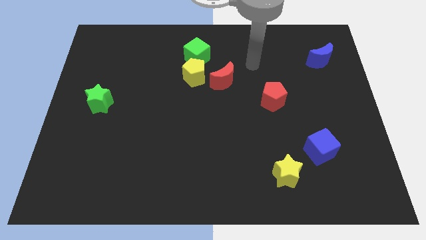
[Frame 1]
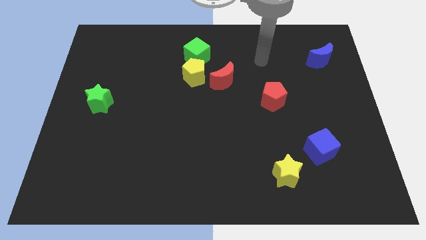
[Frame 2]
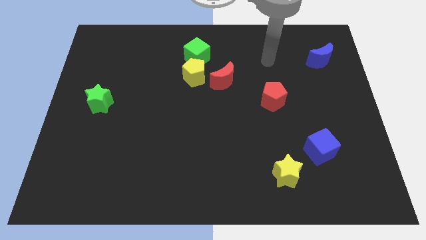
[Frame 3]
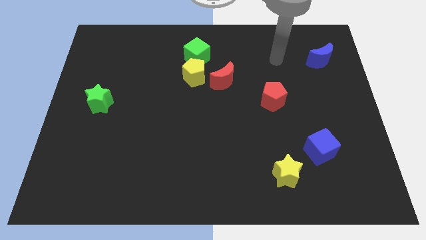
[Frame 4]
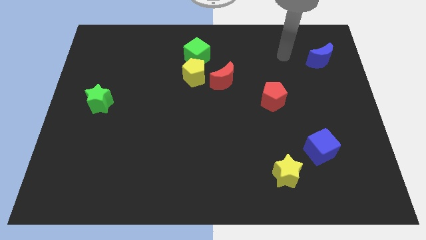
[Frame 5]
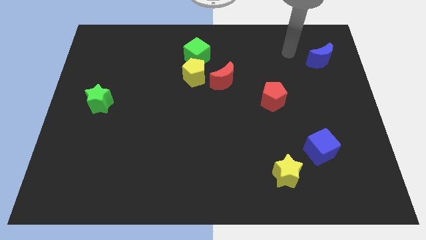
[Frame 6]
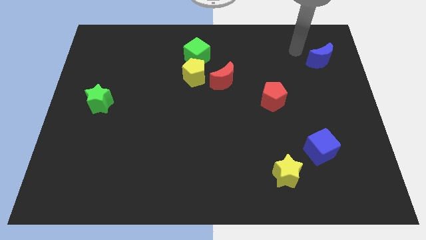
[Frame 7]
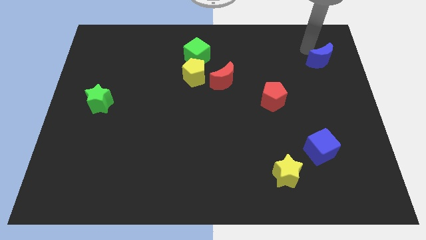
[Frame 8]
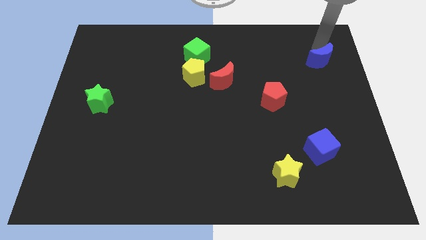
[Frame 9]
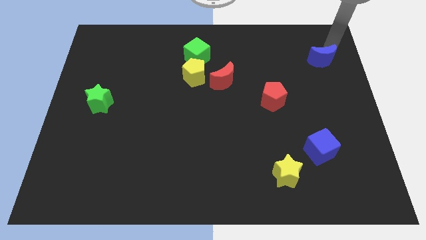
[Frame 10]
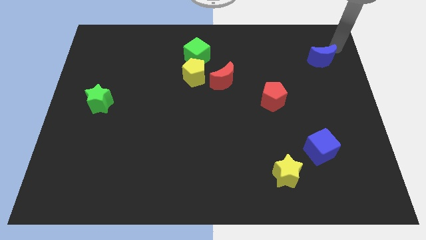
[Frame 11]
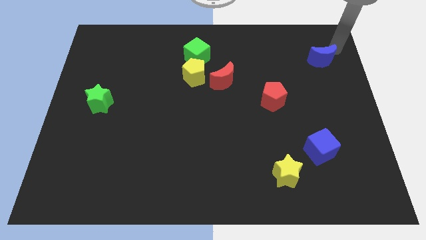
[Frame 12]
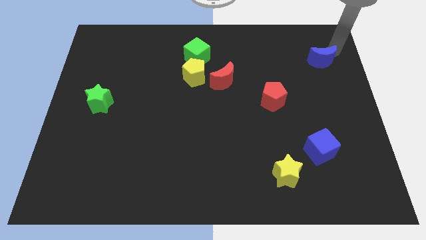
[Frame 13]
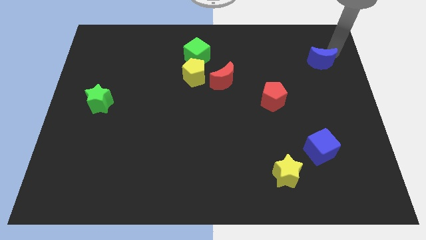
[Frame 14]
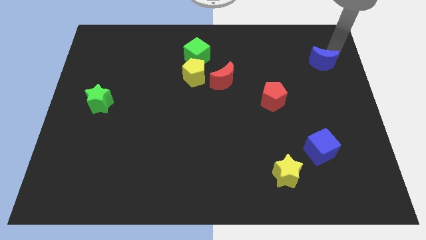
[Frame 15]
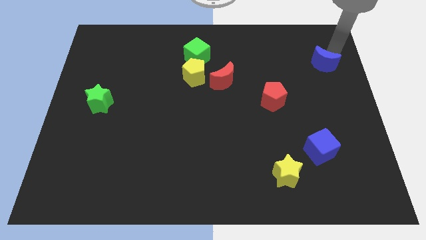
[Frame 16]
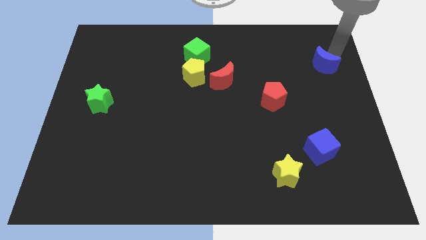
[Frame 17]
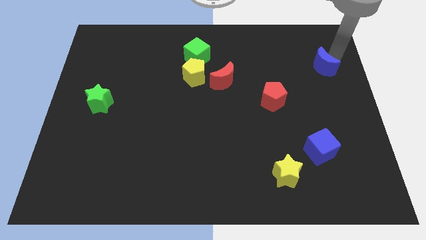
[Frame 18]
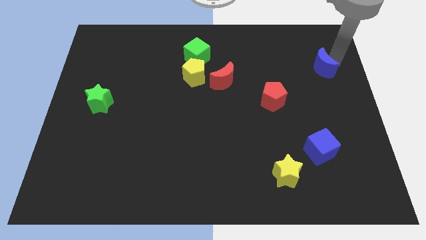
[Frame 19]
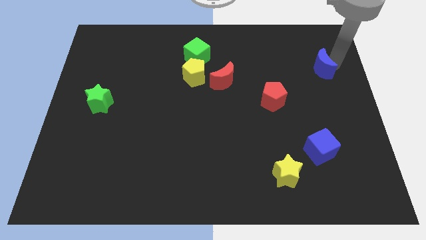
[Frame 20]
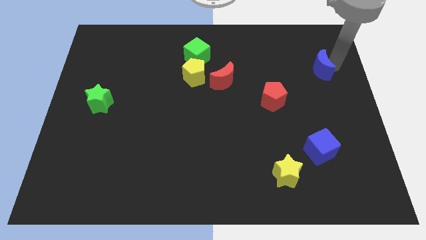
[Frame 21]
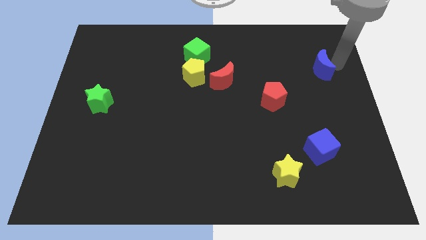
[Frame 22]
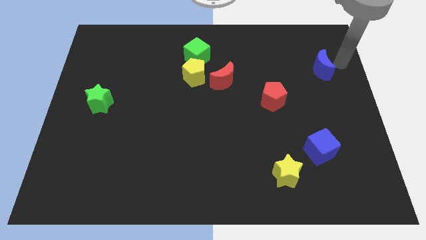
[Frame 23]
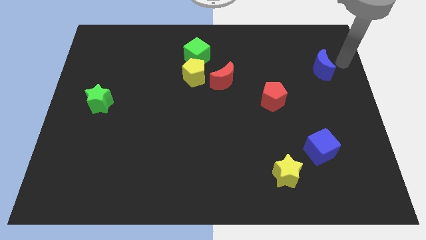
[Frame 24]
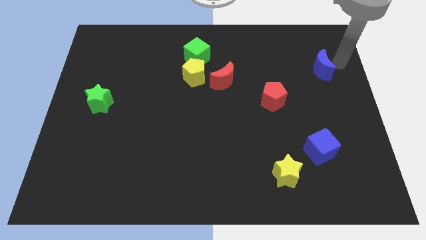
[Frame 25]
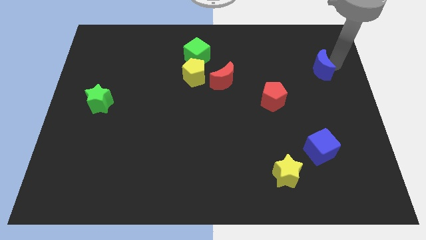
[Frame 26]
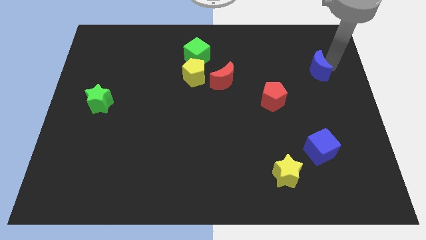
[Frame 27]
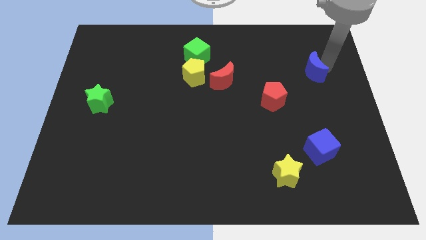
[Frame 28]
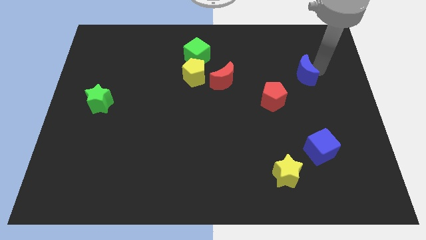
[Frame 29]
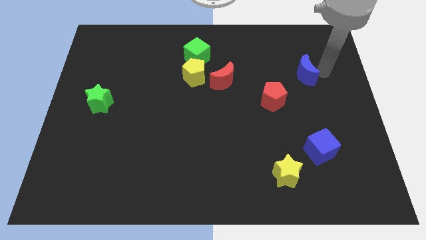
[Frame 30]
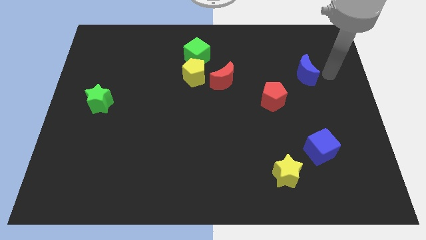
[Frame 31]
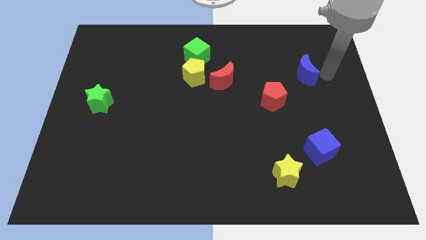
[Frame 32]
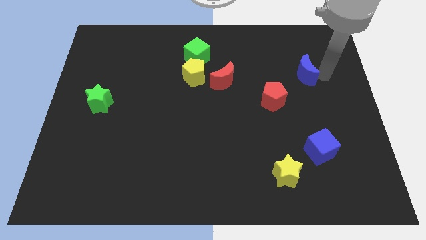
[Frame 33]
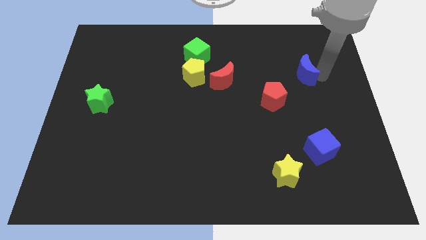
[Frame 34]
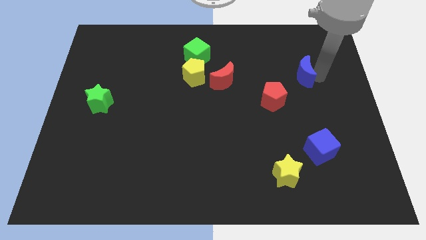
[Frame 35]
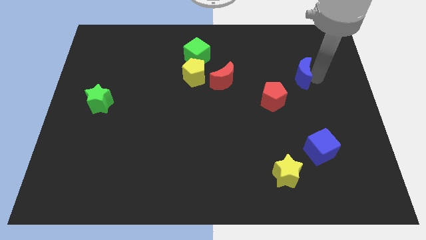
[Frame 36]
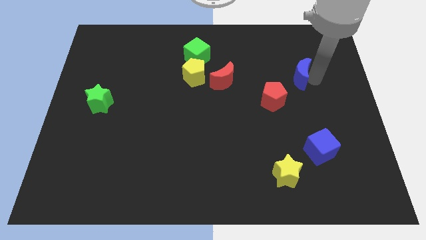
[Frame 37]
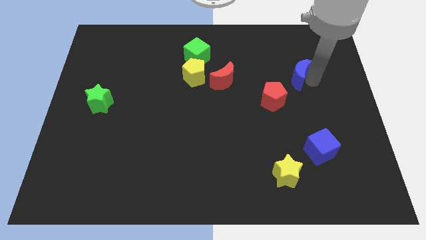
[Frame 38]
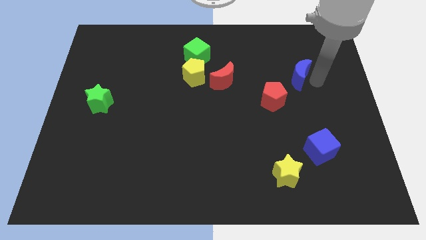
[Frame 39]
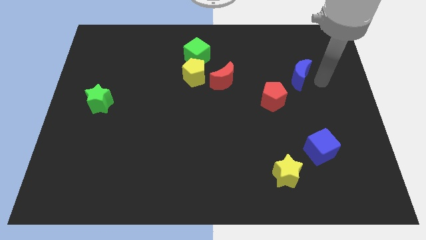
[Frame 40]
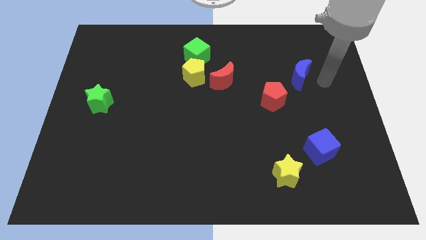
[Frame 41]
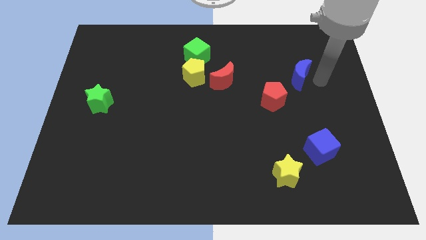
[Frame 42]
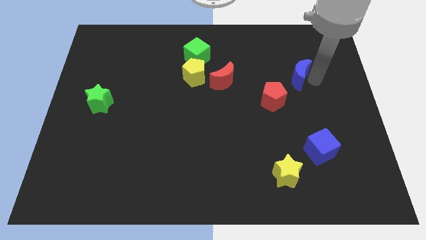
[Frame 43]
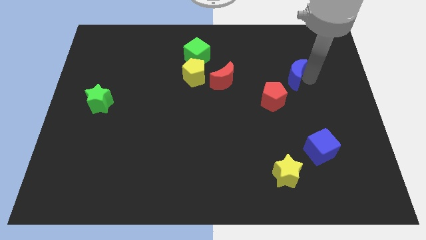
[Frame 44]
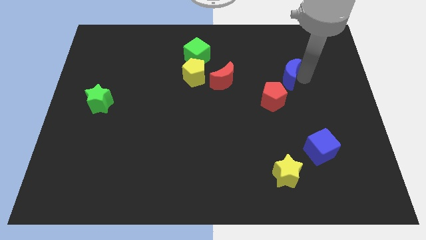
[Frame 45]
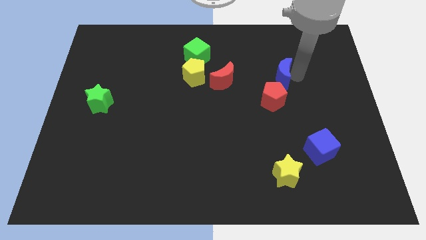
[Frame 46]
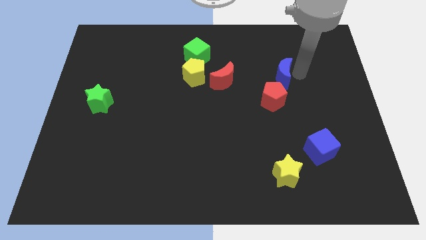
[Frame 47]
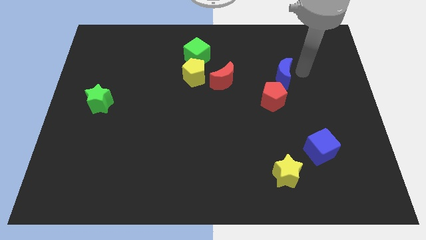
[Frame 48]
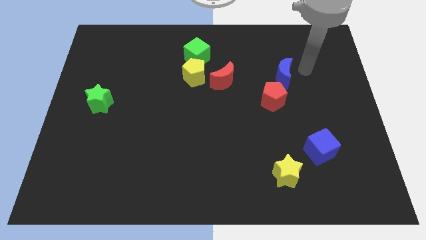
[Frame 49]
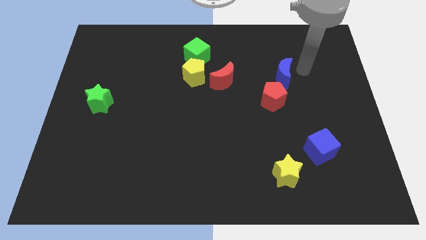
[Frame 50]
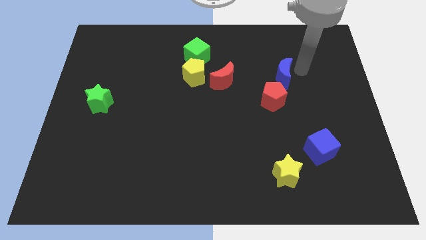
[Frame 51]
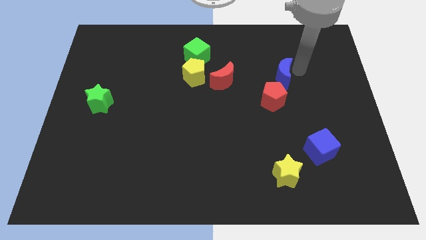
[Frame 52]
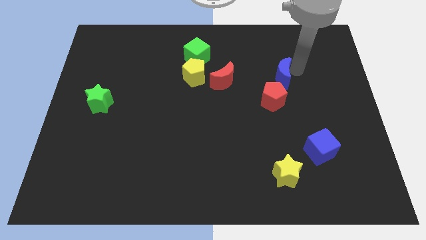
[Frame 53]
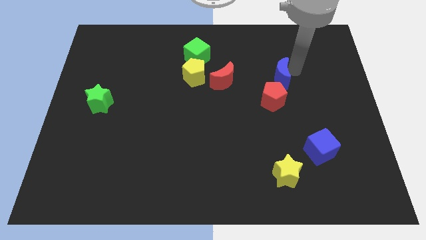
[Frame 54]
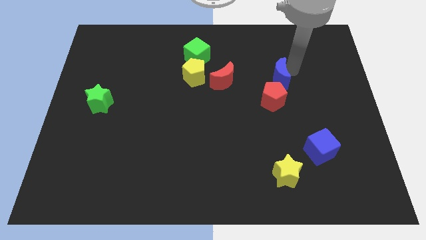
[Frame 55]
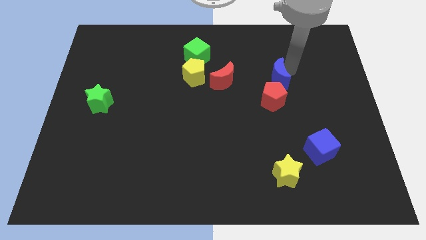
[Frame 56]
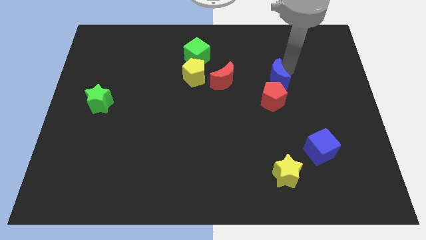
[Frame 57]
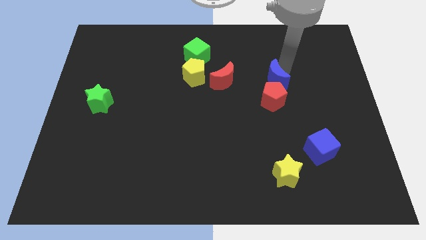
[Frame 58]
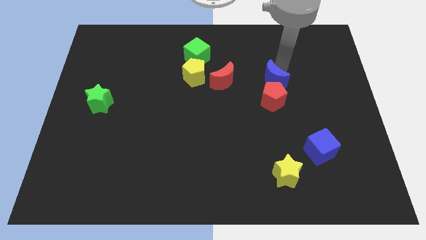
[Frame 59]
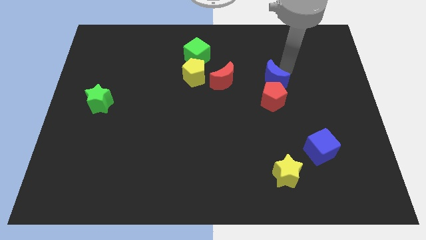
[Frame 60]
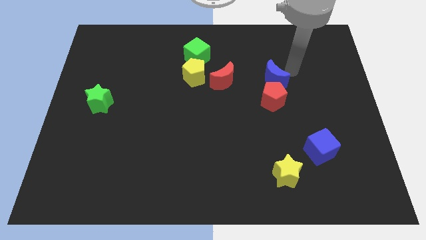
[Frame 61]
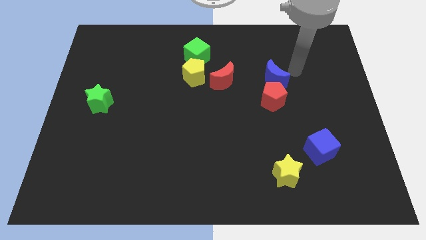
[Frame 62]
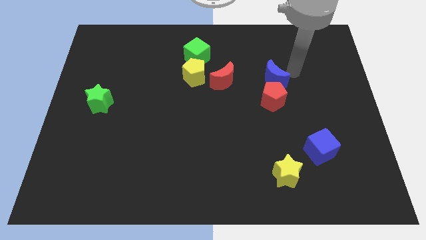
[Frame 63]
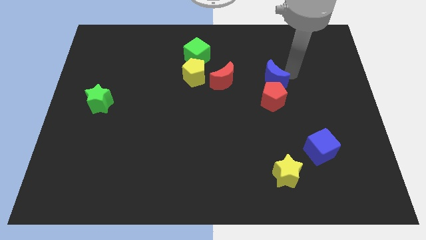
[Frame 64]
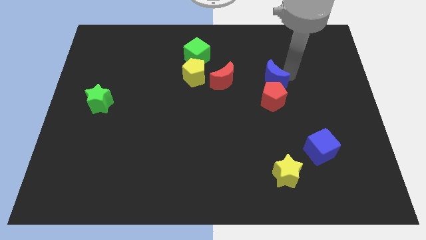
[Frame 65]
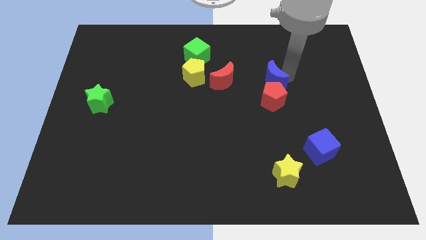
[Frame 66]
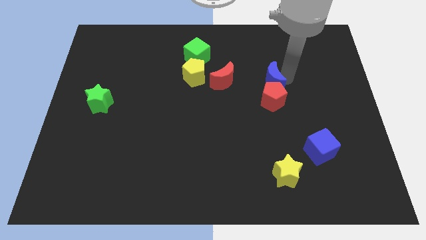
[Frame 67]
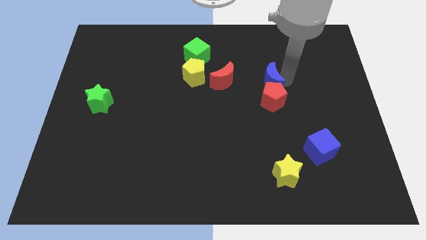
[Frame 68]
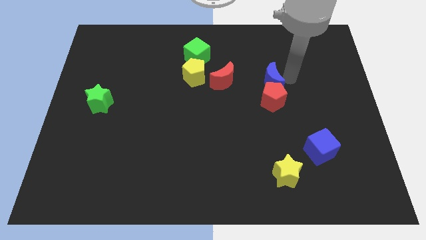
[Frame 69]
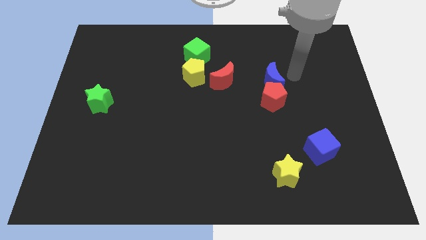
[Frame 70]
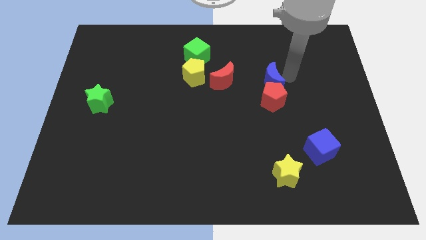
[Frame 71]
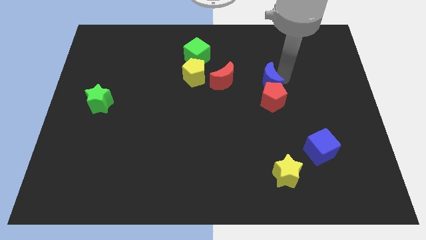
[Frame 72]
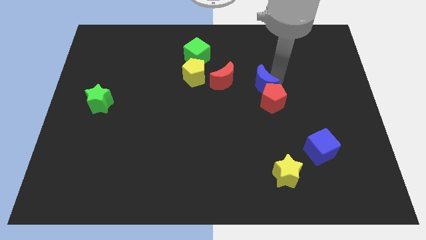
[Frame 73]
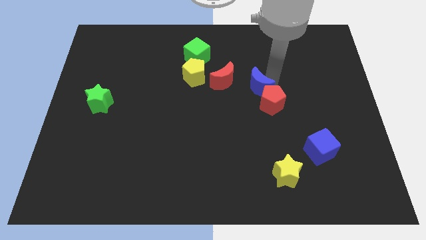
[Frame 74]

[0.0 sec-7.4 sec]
push the blue moon to the middle of the board
